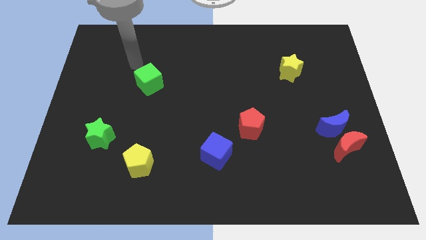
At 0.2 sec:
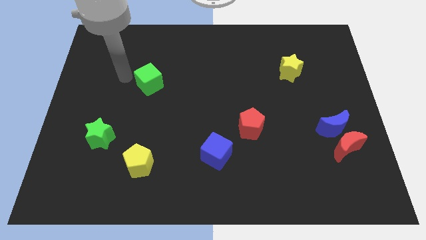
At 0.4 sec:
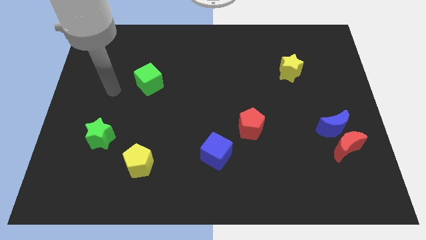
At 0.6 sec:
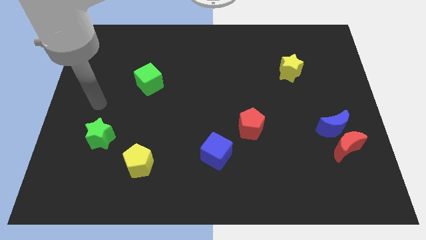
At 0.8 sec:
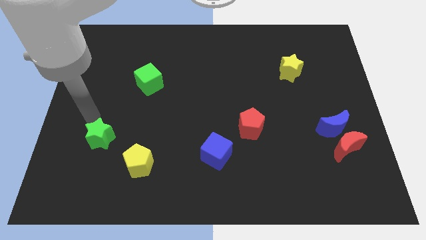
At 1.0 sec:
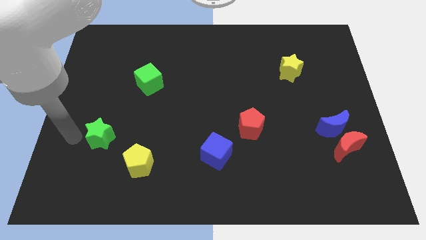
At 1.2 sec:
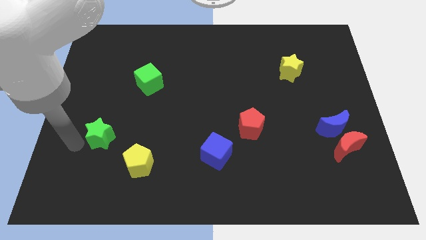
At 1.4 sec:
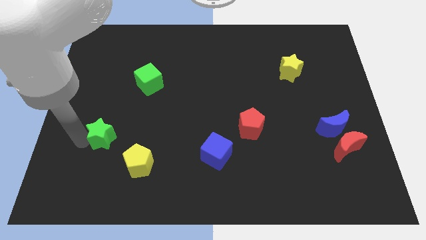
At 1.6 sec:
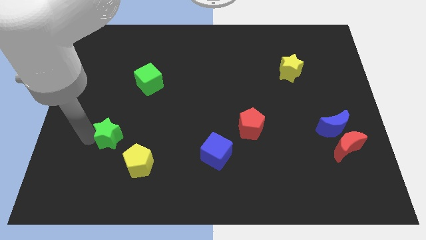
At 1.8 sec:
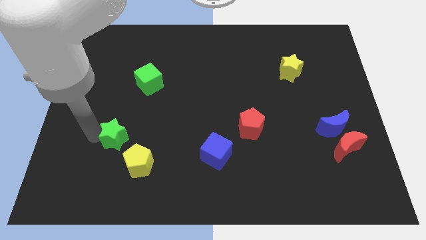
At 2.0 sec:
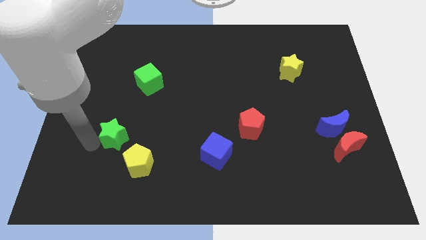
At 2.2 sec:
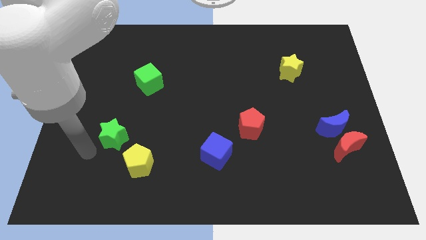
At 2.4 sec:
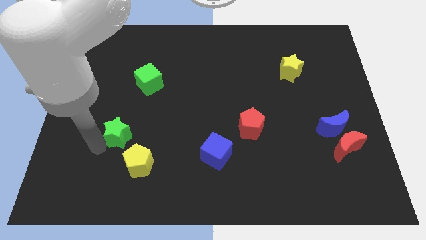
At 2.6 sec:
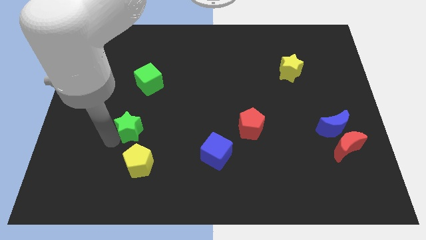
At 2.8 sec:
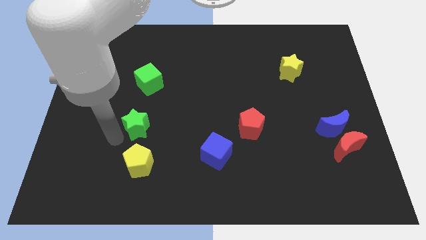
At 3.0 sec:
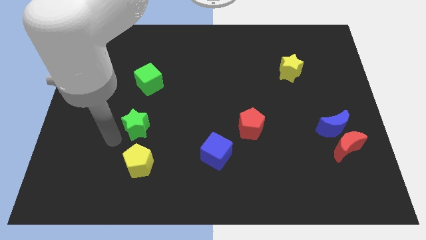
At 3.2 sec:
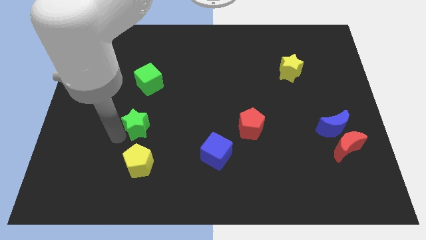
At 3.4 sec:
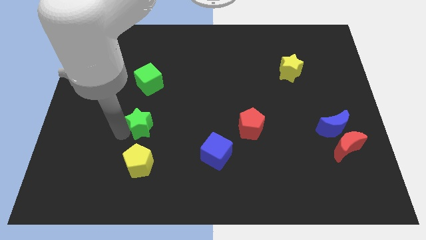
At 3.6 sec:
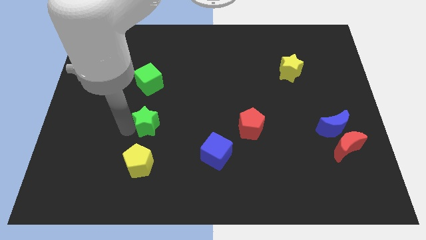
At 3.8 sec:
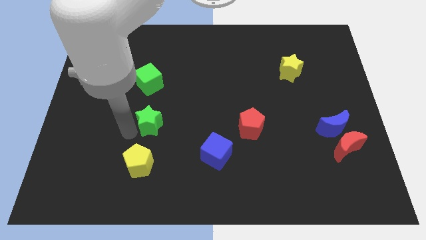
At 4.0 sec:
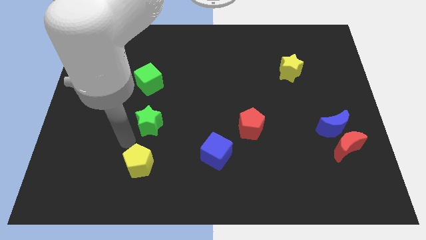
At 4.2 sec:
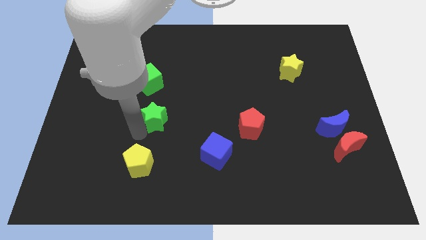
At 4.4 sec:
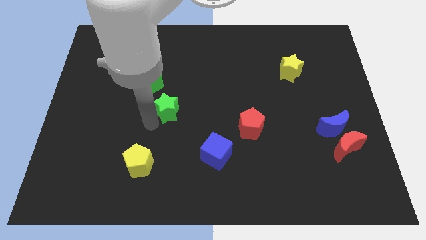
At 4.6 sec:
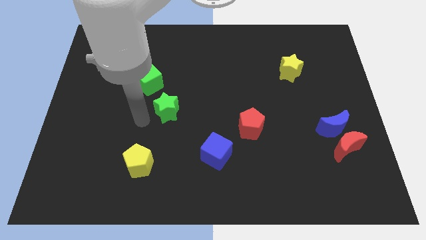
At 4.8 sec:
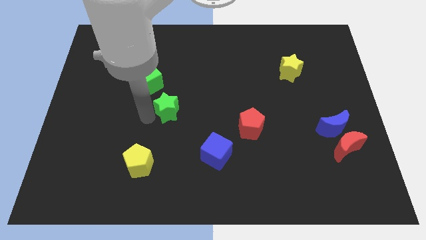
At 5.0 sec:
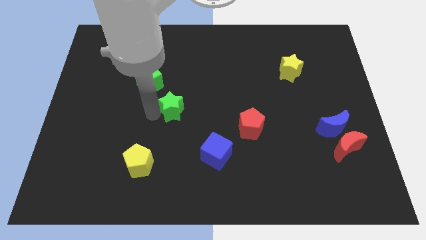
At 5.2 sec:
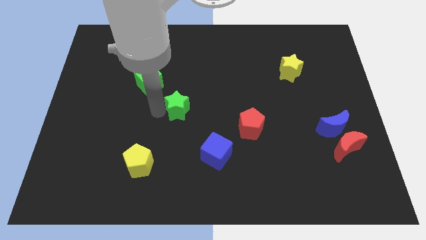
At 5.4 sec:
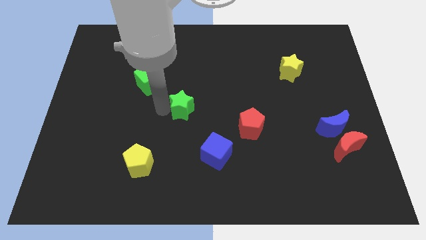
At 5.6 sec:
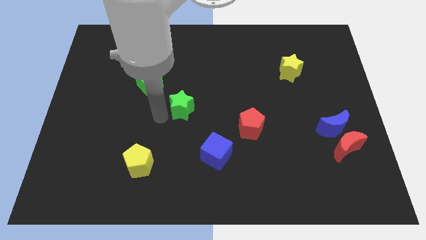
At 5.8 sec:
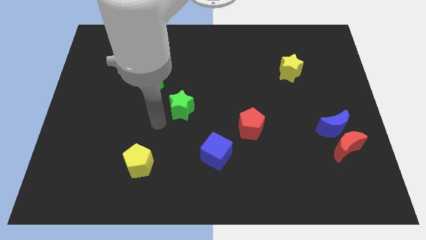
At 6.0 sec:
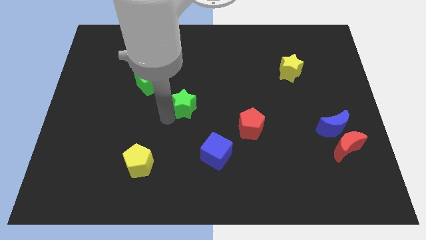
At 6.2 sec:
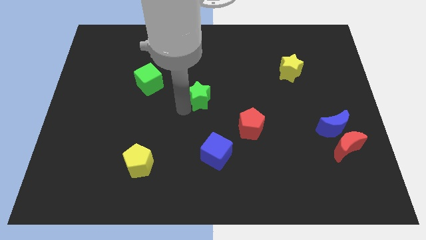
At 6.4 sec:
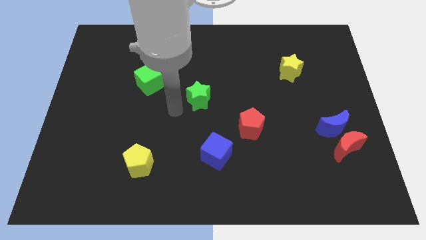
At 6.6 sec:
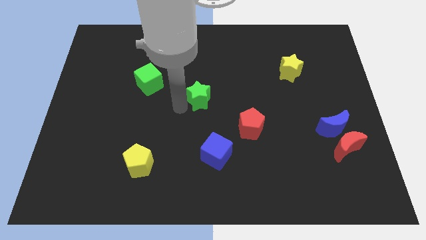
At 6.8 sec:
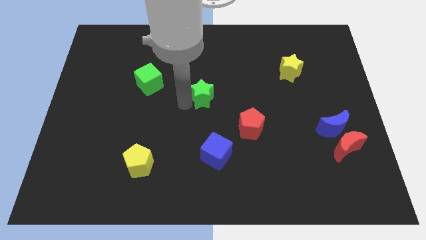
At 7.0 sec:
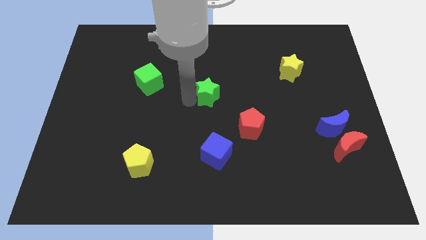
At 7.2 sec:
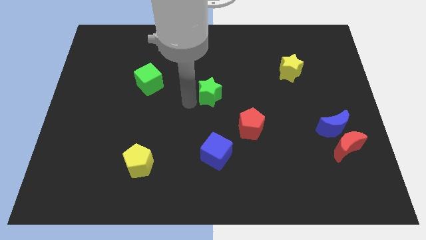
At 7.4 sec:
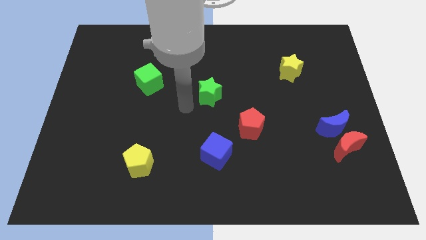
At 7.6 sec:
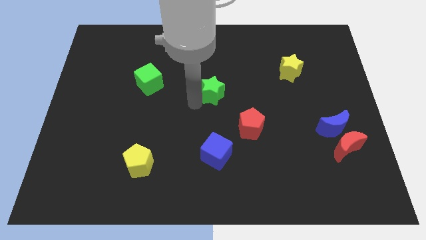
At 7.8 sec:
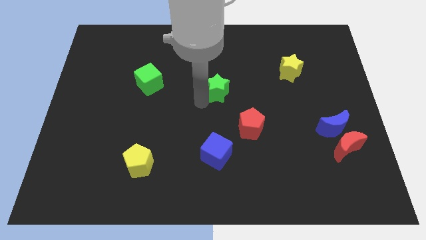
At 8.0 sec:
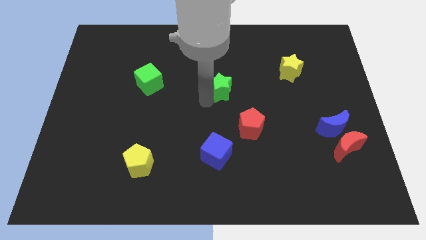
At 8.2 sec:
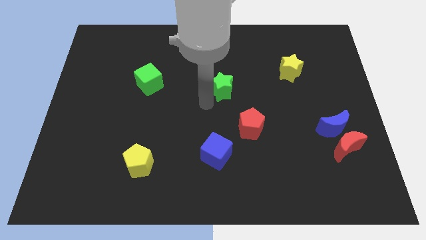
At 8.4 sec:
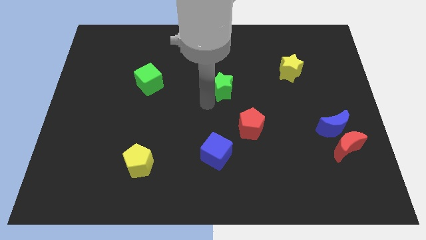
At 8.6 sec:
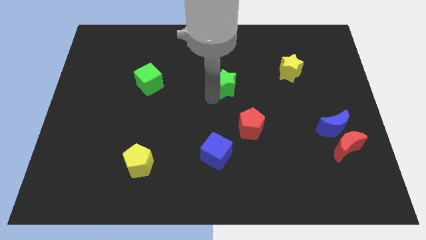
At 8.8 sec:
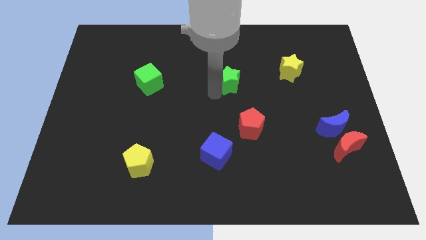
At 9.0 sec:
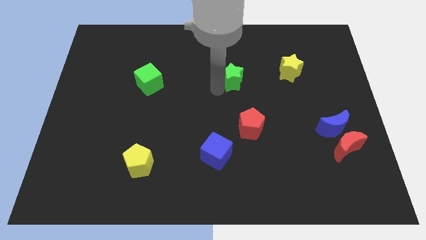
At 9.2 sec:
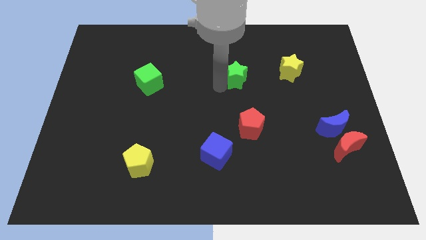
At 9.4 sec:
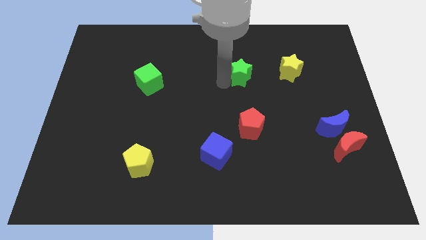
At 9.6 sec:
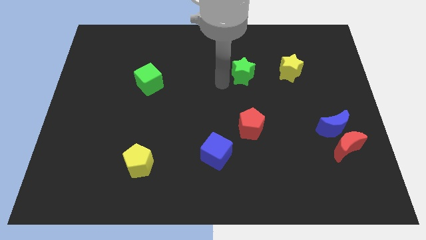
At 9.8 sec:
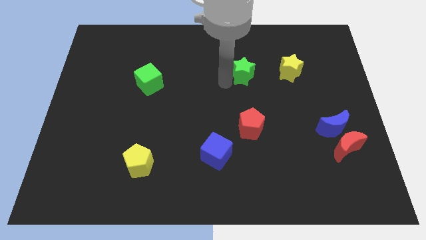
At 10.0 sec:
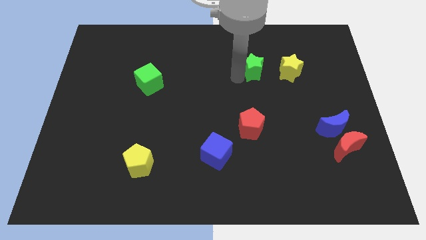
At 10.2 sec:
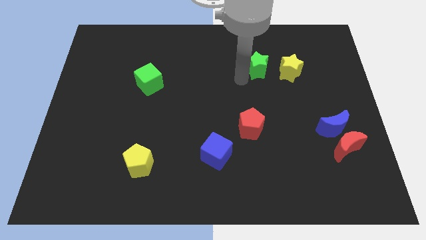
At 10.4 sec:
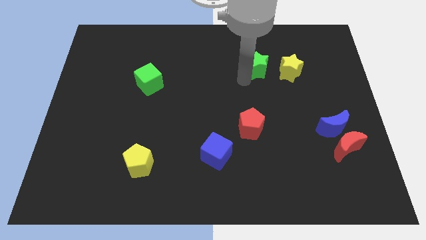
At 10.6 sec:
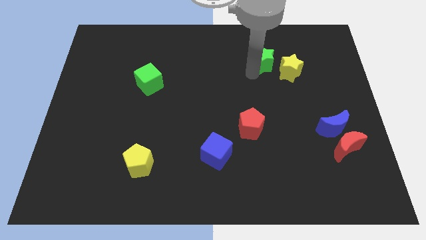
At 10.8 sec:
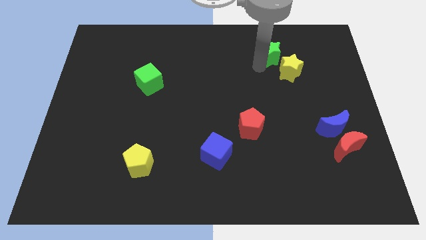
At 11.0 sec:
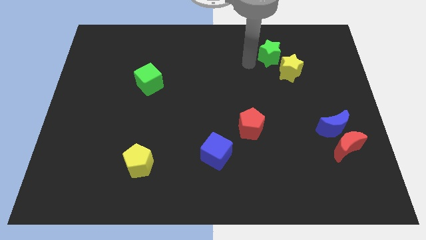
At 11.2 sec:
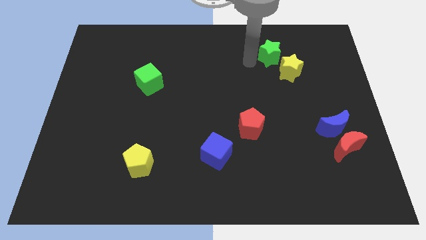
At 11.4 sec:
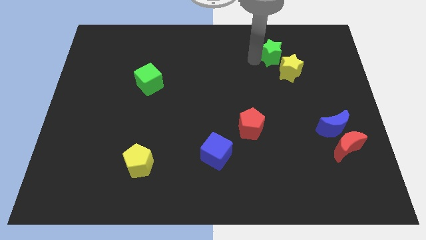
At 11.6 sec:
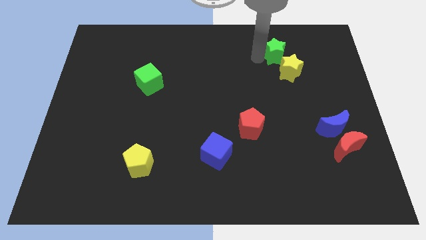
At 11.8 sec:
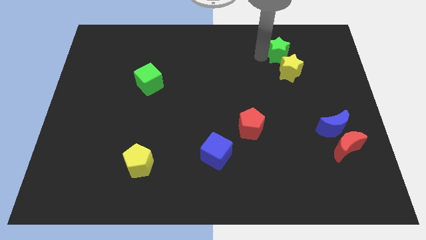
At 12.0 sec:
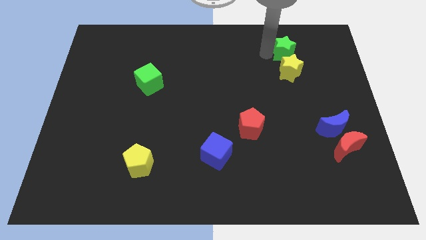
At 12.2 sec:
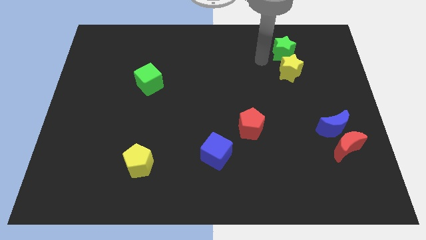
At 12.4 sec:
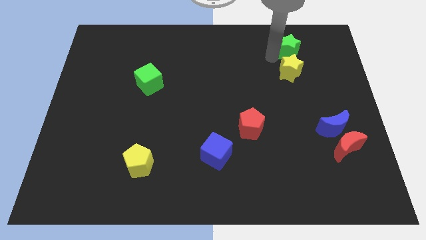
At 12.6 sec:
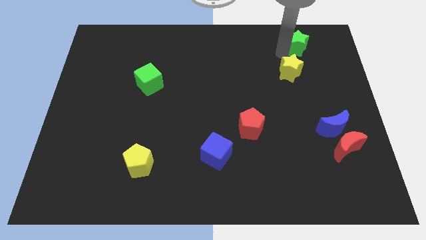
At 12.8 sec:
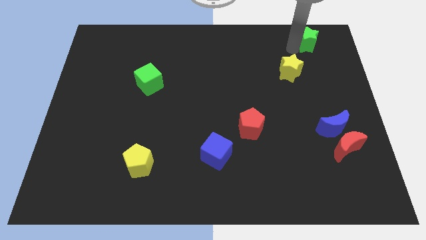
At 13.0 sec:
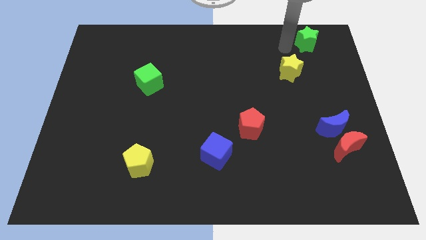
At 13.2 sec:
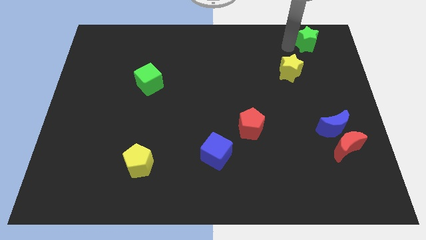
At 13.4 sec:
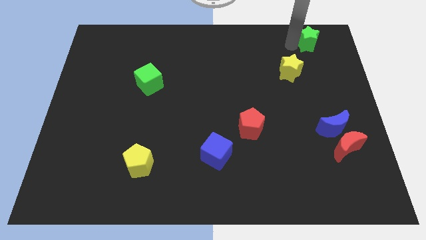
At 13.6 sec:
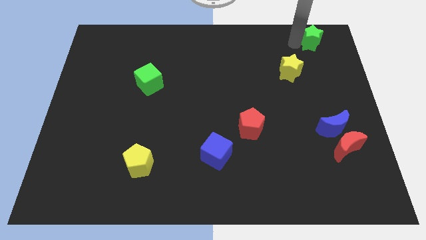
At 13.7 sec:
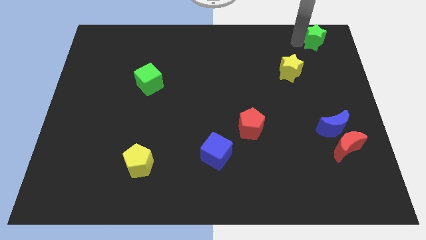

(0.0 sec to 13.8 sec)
put the green star to the top right of the board
